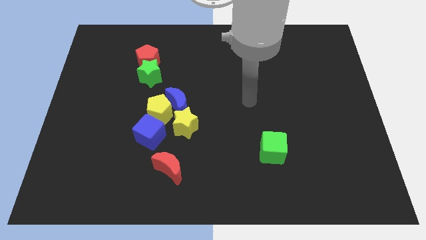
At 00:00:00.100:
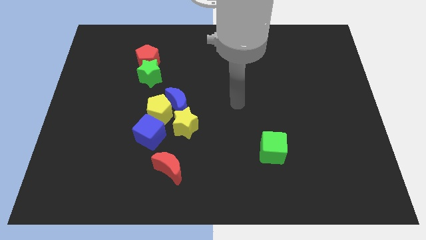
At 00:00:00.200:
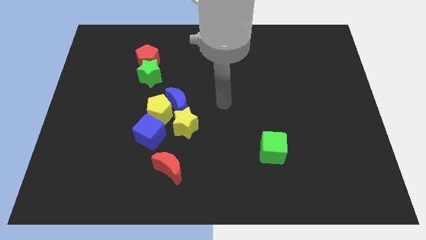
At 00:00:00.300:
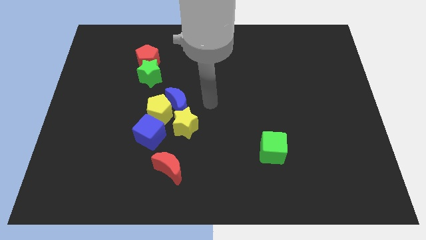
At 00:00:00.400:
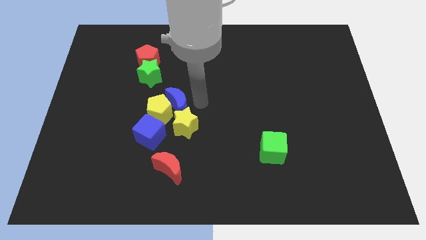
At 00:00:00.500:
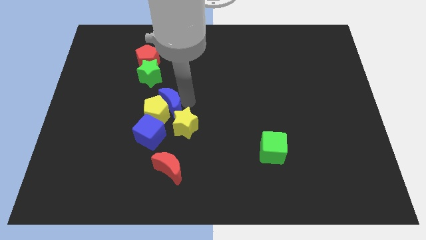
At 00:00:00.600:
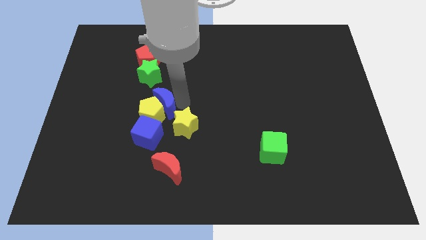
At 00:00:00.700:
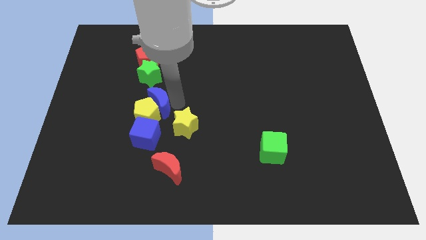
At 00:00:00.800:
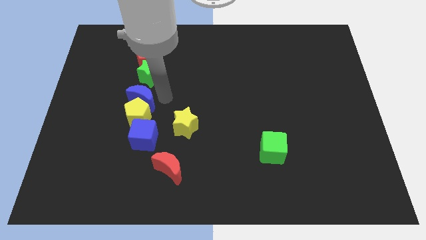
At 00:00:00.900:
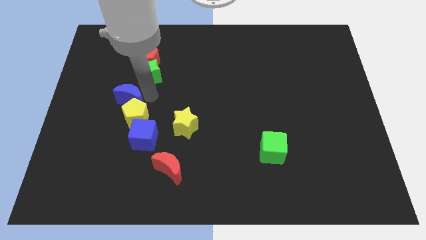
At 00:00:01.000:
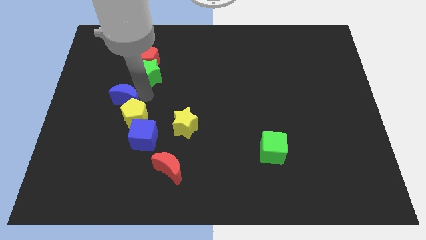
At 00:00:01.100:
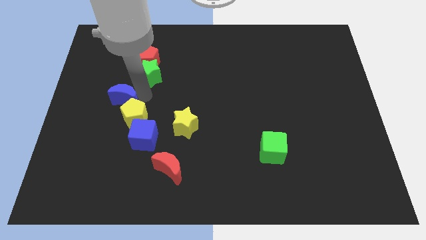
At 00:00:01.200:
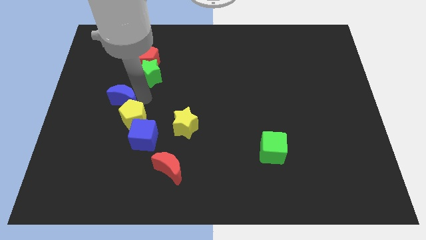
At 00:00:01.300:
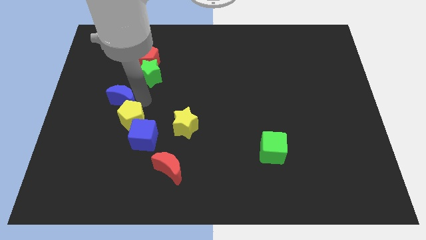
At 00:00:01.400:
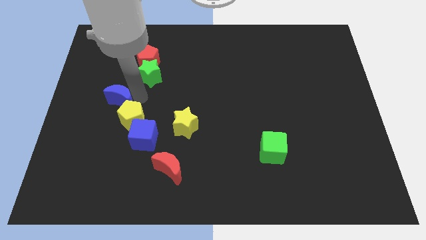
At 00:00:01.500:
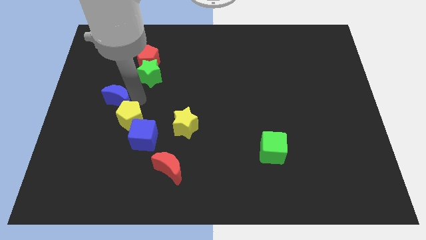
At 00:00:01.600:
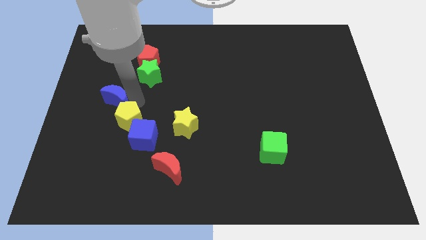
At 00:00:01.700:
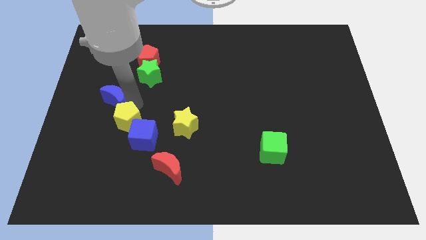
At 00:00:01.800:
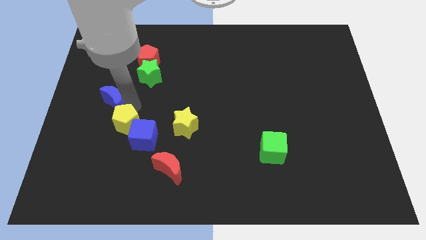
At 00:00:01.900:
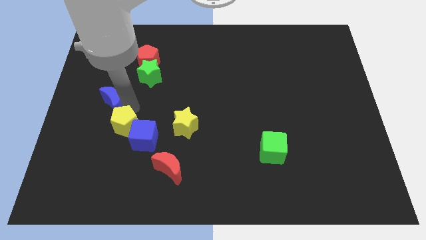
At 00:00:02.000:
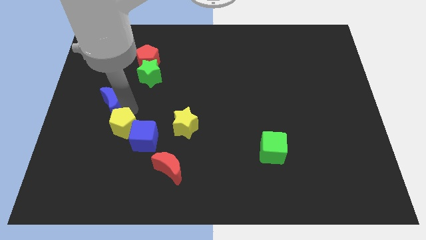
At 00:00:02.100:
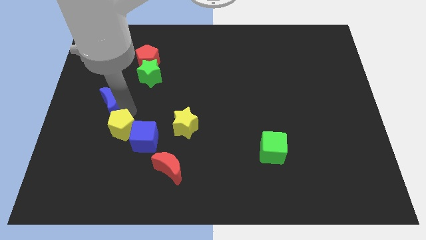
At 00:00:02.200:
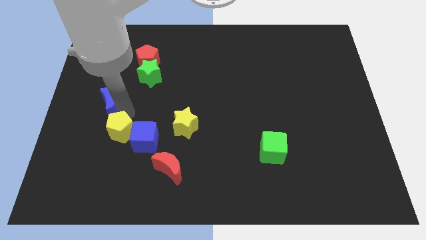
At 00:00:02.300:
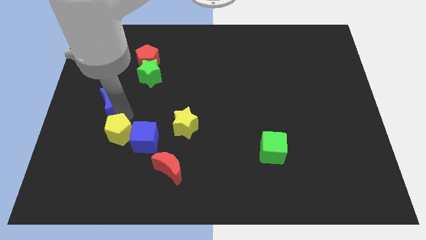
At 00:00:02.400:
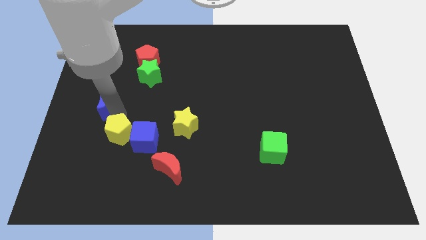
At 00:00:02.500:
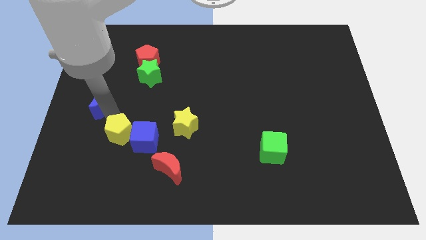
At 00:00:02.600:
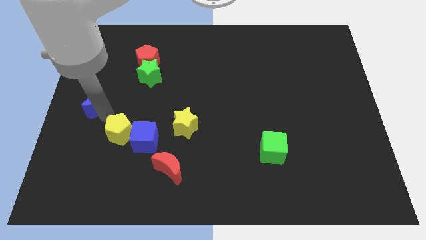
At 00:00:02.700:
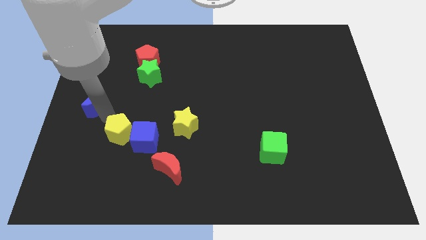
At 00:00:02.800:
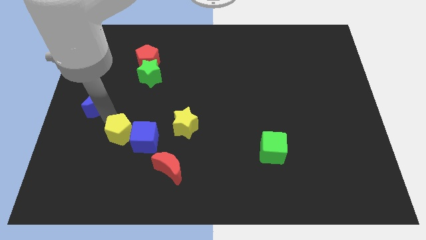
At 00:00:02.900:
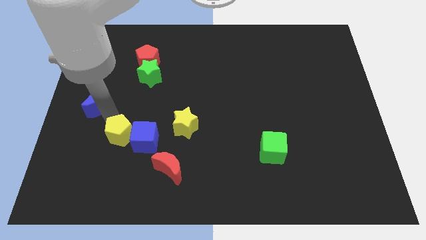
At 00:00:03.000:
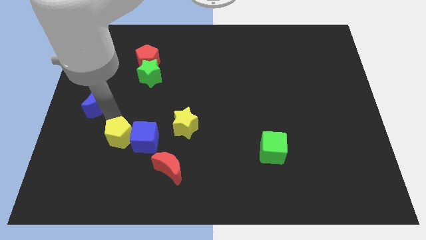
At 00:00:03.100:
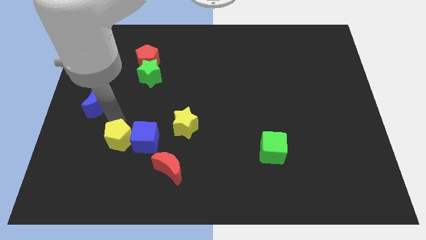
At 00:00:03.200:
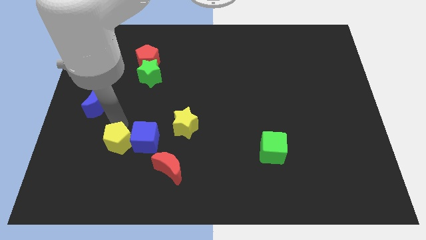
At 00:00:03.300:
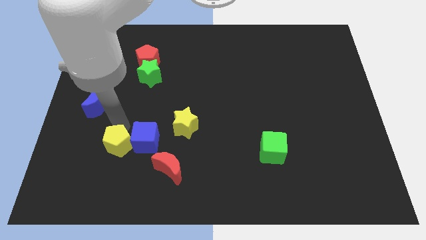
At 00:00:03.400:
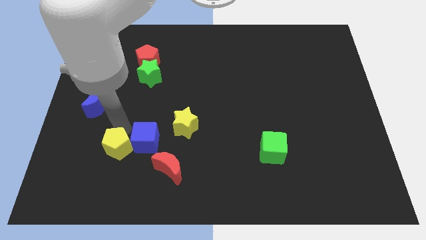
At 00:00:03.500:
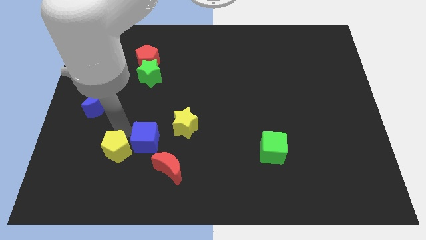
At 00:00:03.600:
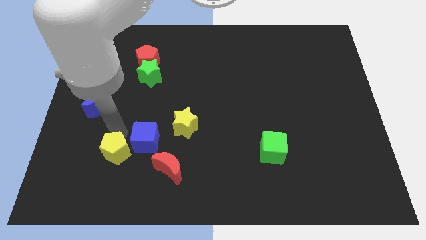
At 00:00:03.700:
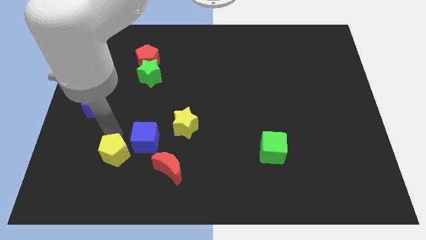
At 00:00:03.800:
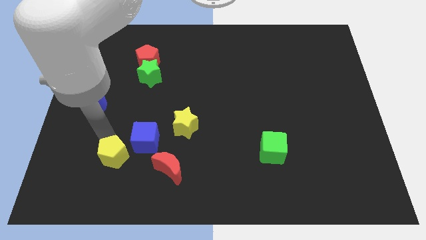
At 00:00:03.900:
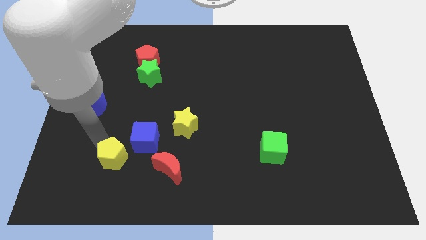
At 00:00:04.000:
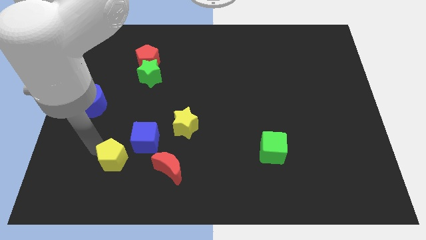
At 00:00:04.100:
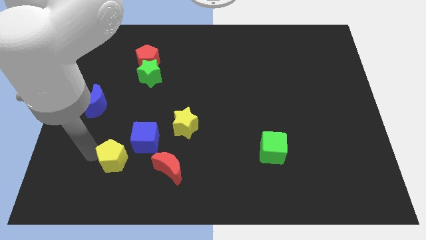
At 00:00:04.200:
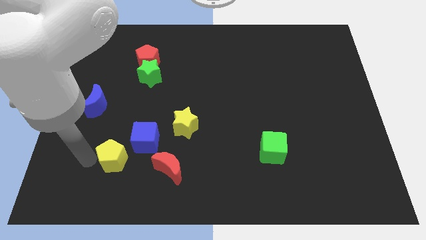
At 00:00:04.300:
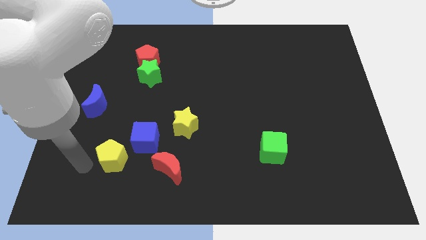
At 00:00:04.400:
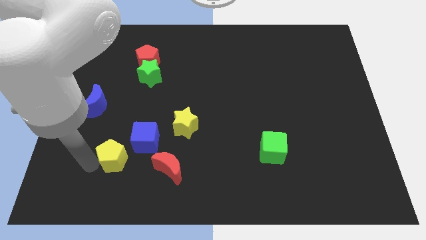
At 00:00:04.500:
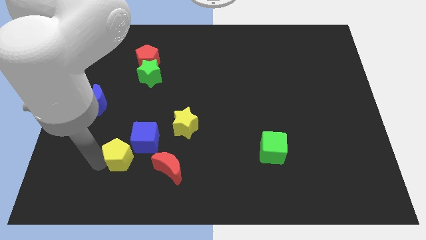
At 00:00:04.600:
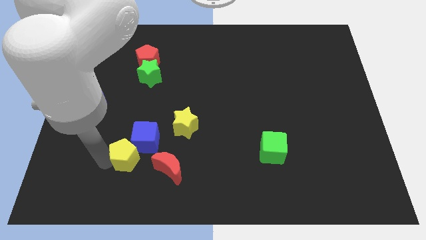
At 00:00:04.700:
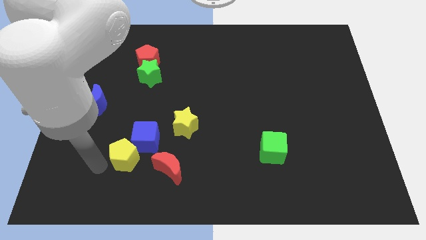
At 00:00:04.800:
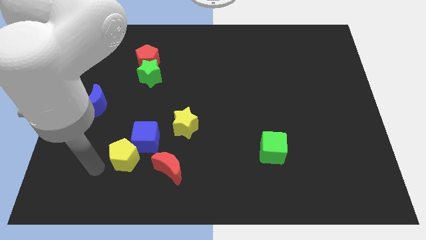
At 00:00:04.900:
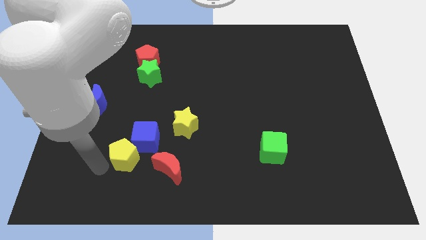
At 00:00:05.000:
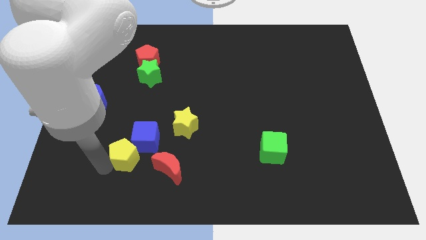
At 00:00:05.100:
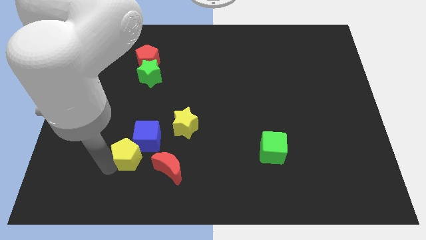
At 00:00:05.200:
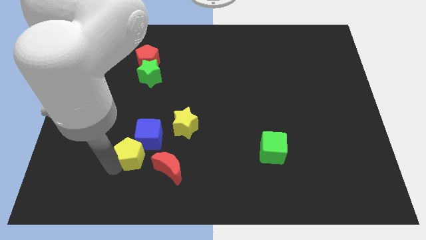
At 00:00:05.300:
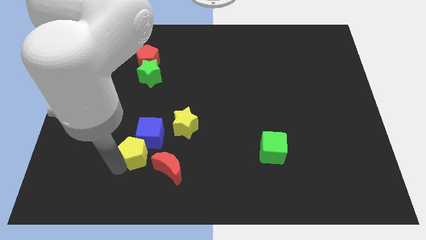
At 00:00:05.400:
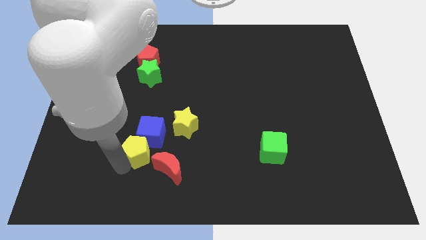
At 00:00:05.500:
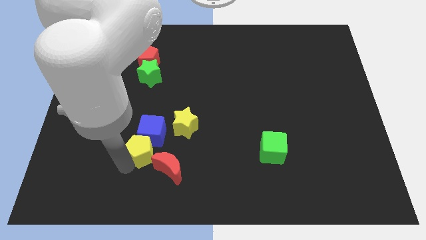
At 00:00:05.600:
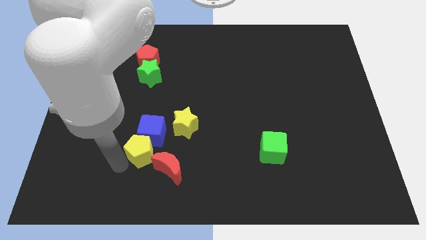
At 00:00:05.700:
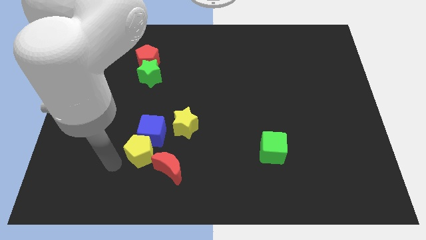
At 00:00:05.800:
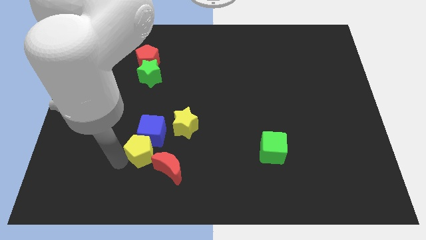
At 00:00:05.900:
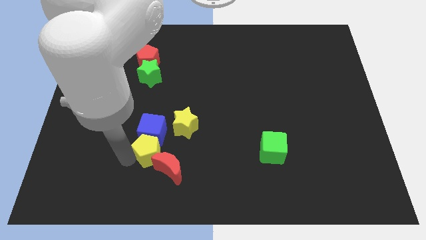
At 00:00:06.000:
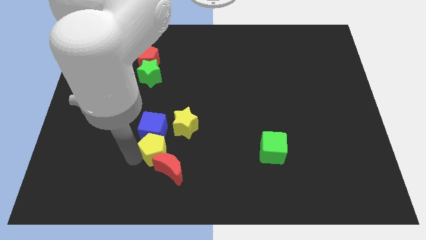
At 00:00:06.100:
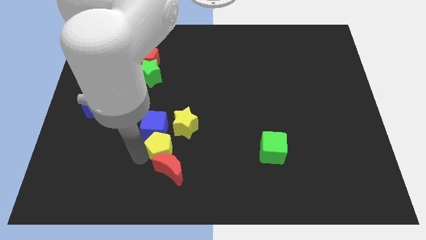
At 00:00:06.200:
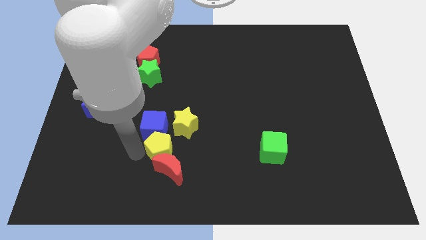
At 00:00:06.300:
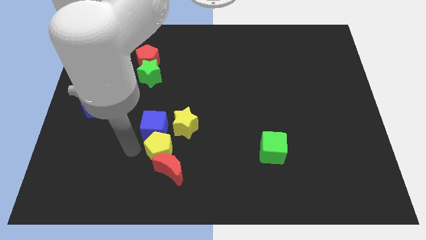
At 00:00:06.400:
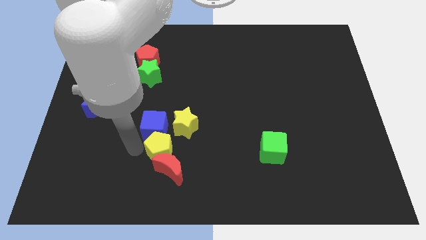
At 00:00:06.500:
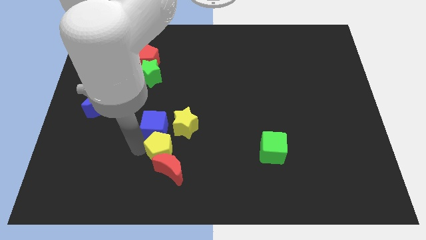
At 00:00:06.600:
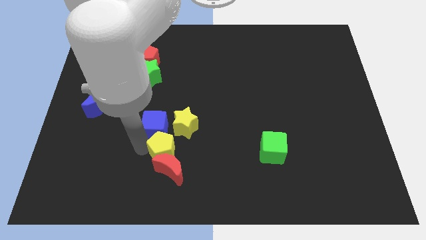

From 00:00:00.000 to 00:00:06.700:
push the yellow pentagon downwards and then to the right somewhat

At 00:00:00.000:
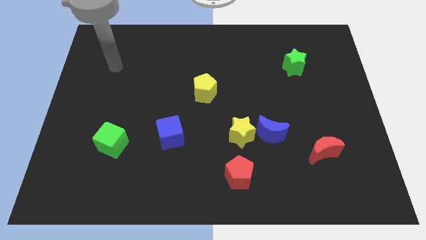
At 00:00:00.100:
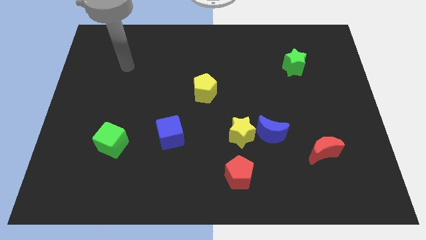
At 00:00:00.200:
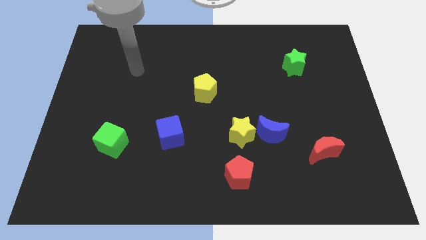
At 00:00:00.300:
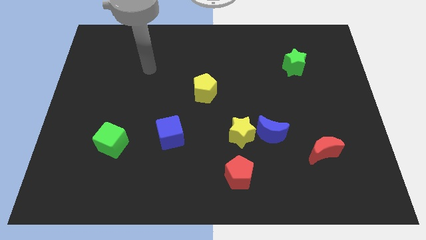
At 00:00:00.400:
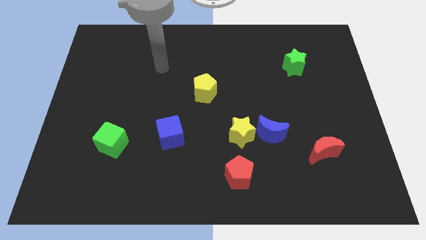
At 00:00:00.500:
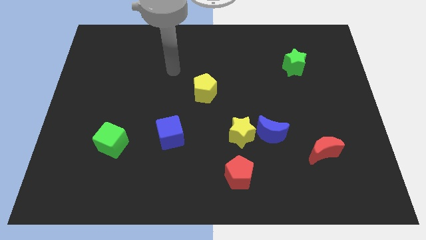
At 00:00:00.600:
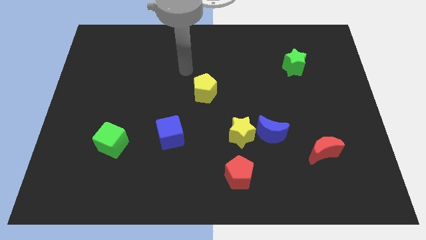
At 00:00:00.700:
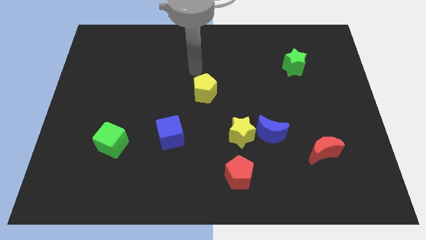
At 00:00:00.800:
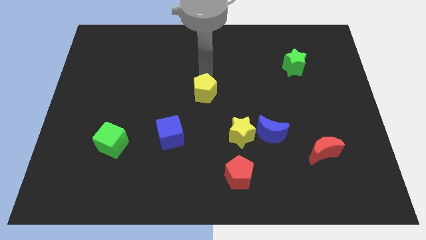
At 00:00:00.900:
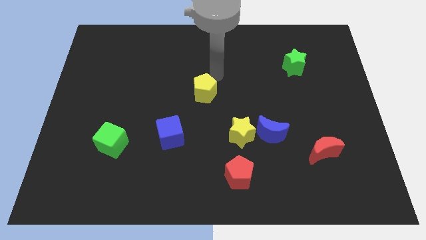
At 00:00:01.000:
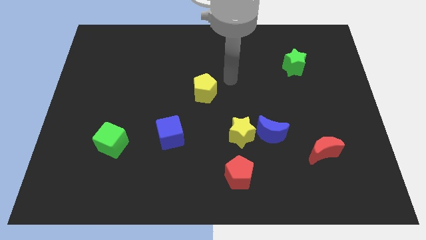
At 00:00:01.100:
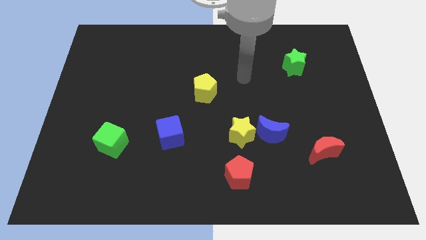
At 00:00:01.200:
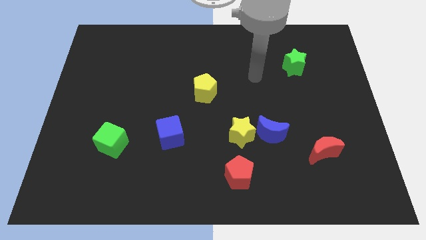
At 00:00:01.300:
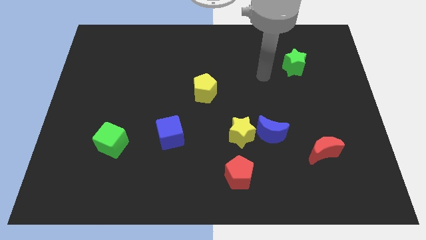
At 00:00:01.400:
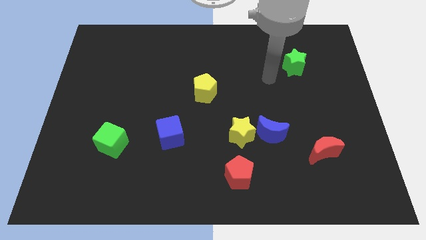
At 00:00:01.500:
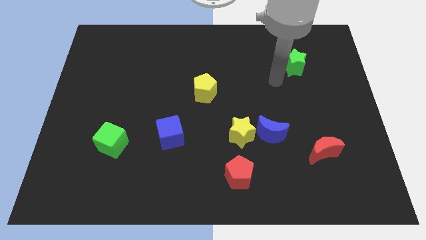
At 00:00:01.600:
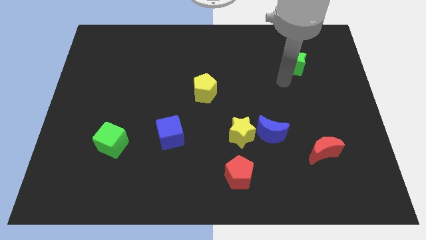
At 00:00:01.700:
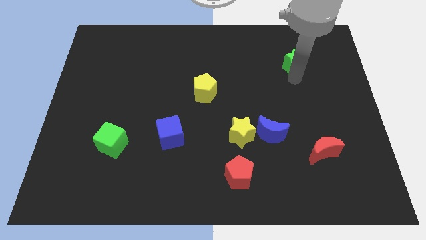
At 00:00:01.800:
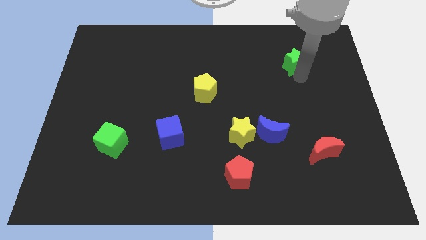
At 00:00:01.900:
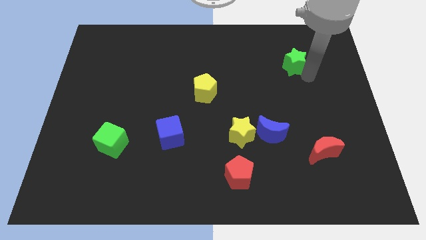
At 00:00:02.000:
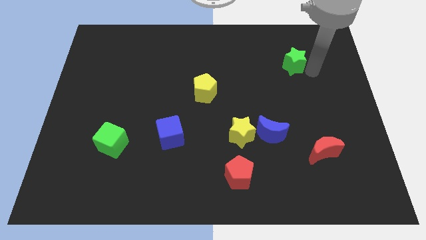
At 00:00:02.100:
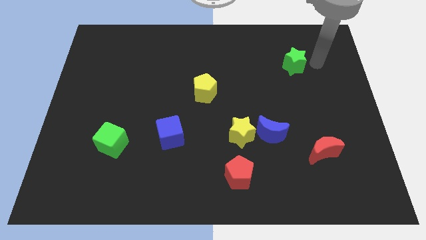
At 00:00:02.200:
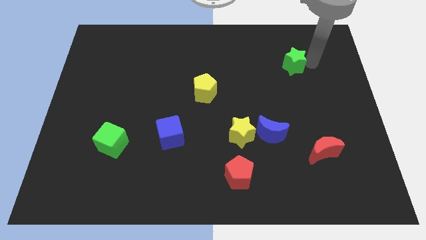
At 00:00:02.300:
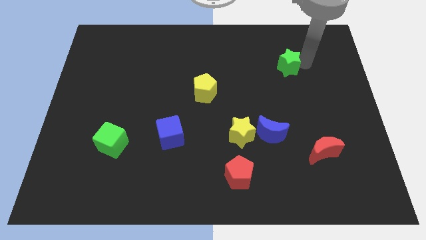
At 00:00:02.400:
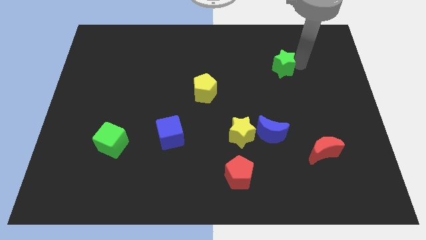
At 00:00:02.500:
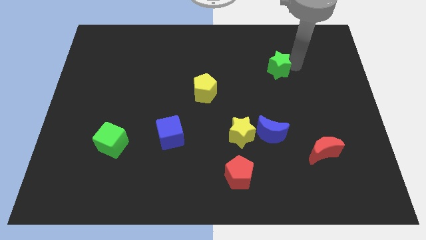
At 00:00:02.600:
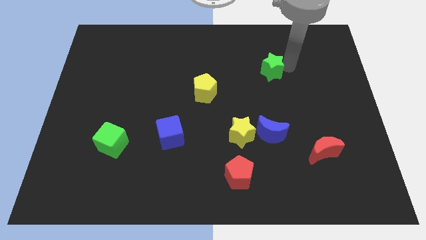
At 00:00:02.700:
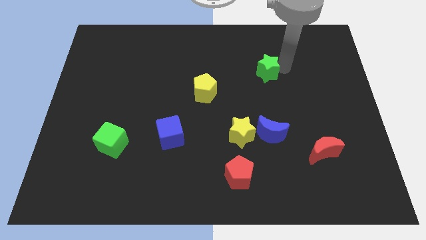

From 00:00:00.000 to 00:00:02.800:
slide the green star to the left somewhat
